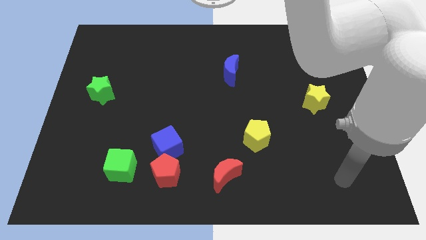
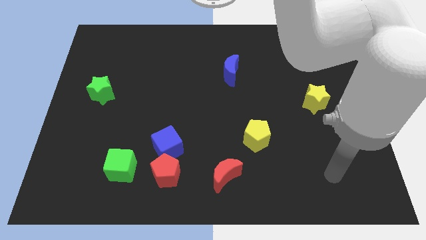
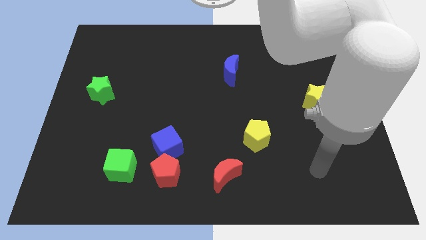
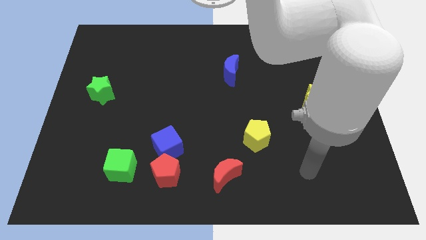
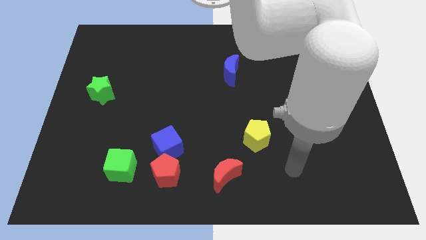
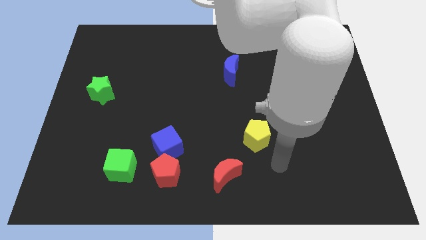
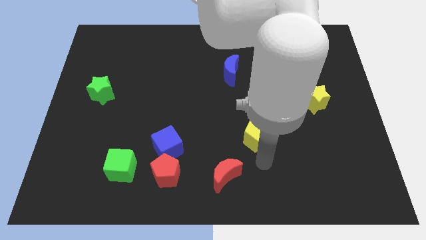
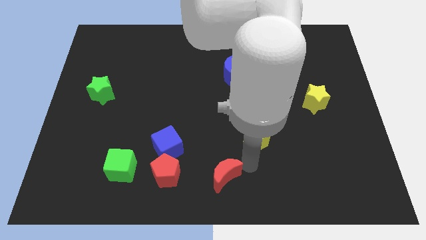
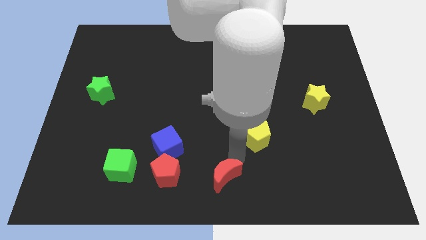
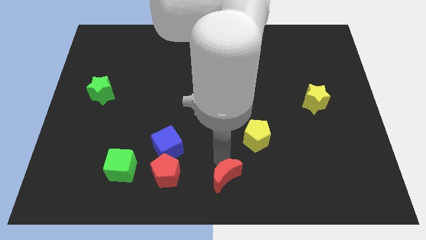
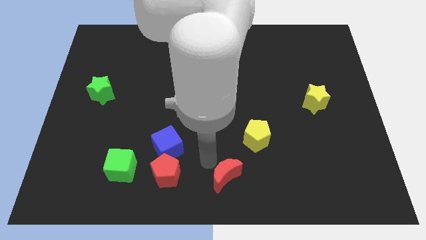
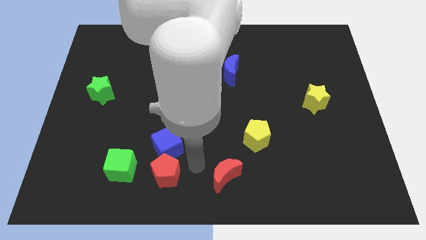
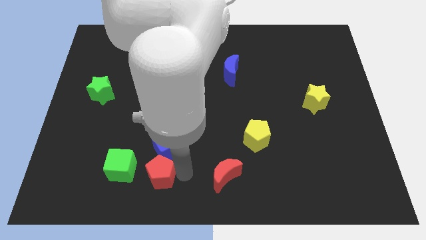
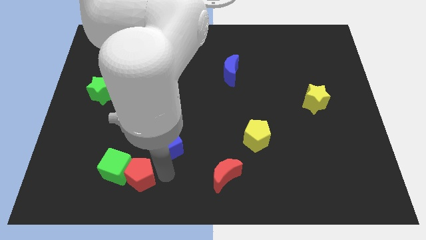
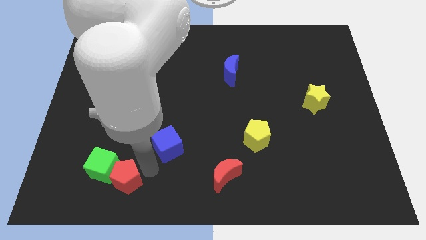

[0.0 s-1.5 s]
pull the blue cube apart from the red pentagon

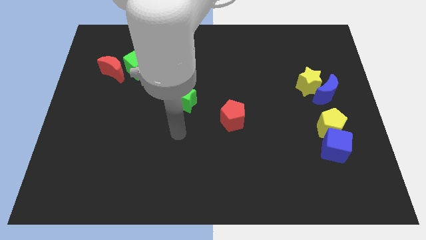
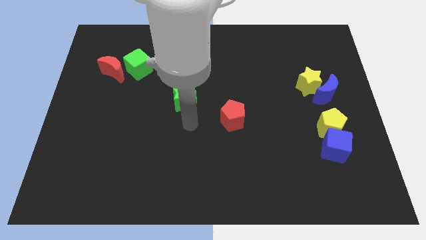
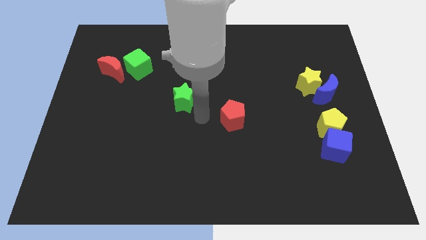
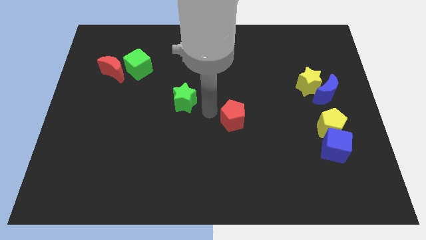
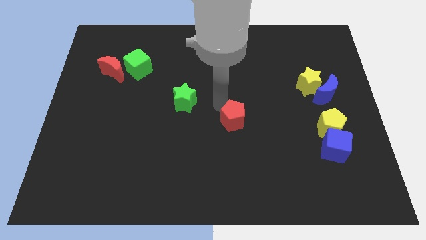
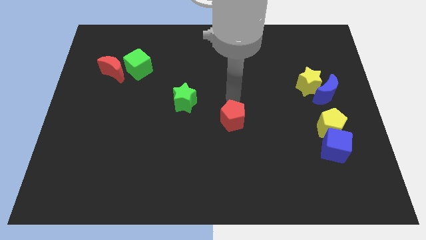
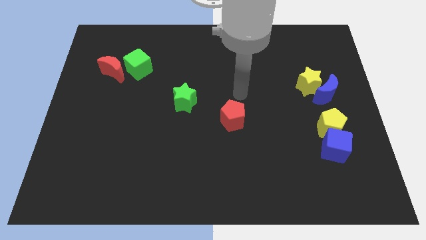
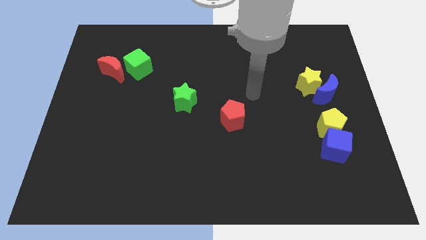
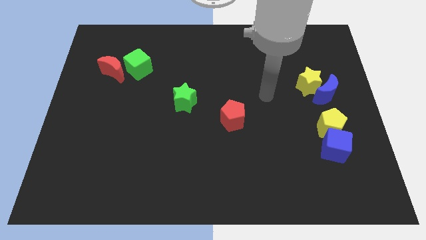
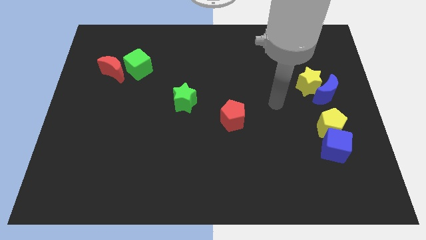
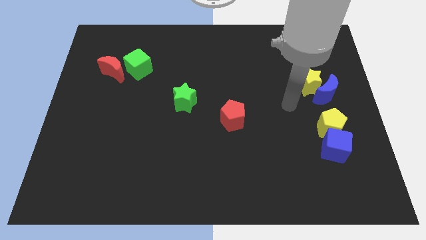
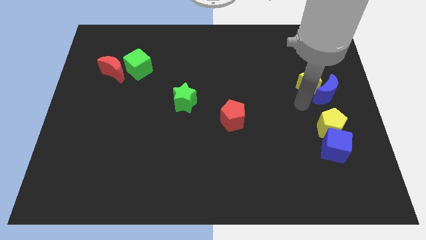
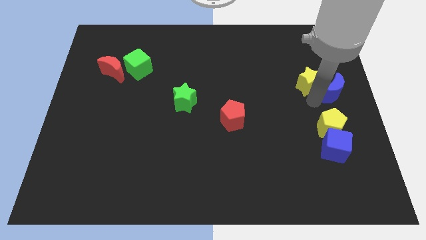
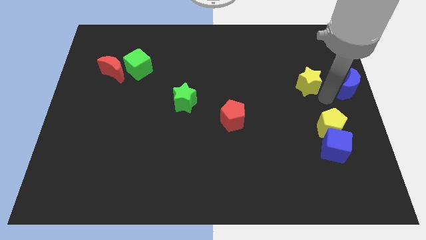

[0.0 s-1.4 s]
pull the yellow star apart from the blue moon

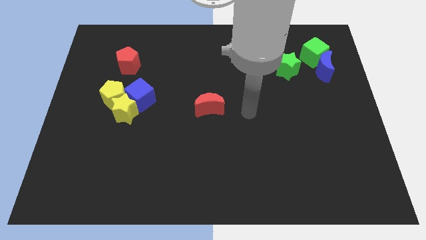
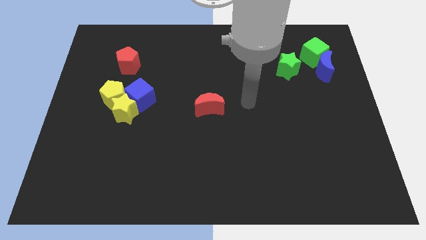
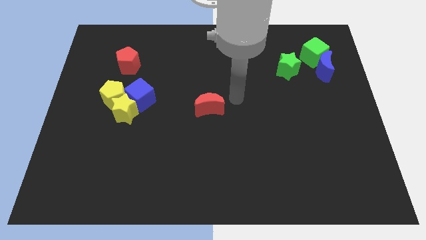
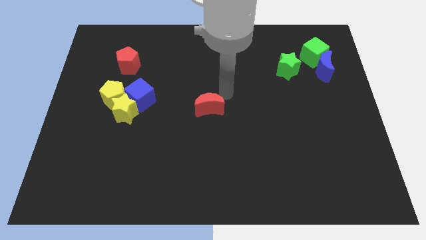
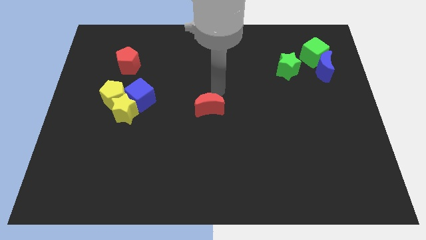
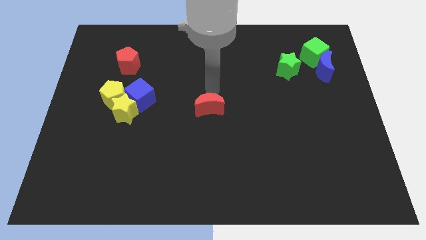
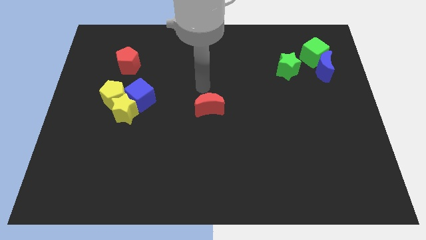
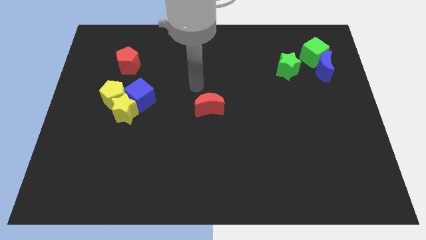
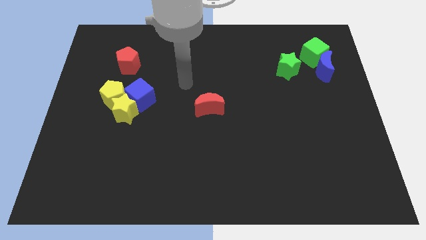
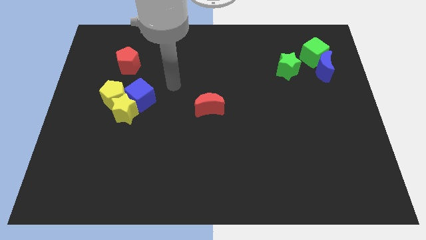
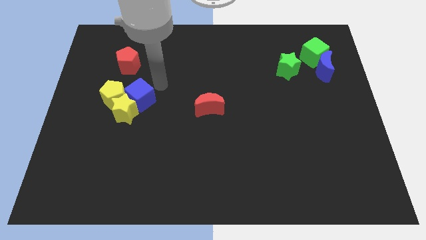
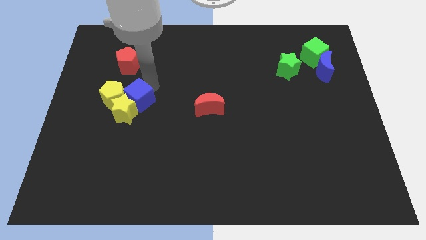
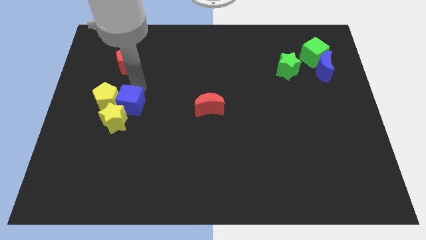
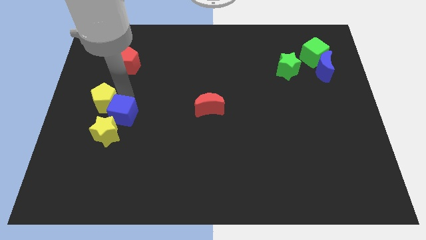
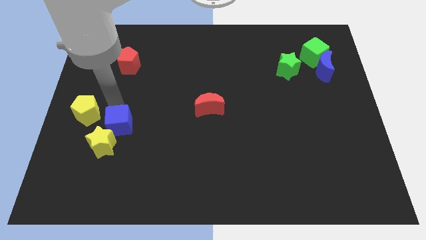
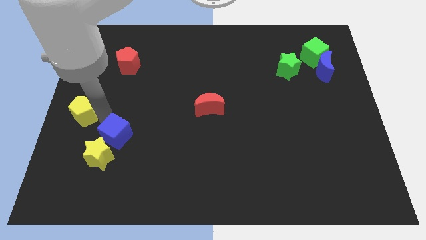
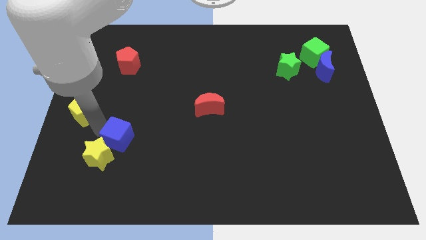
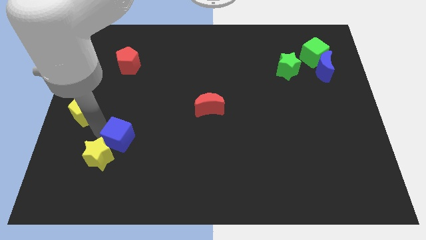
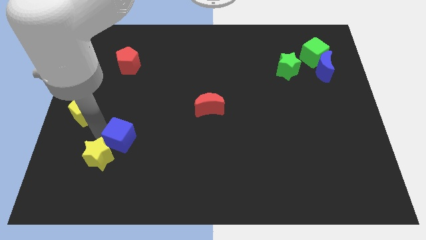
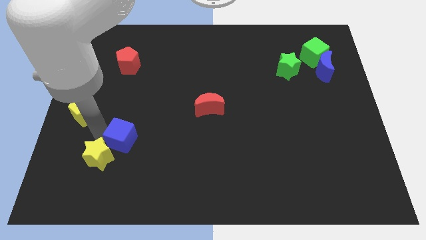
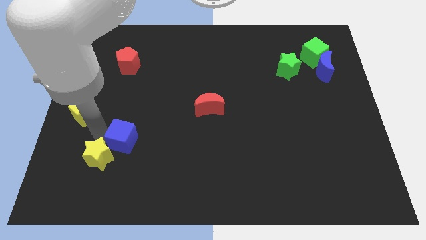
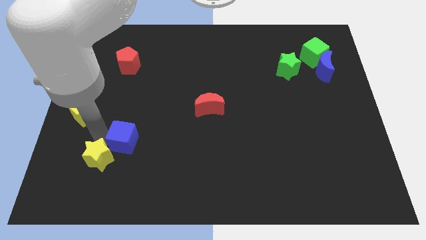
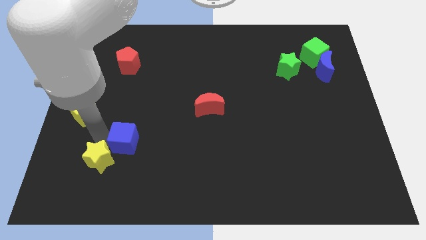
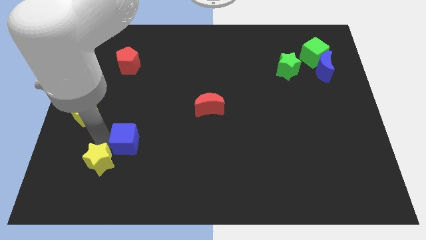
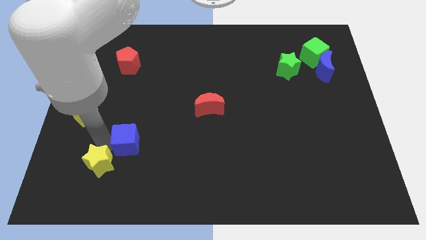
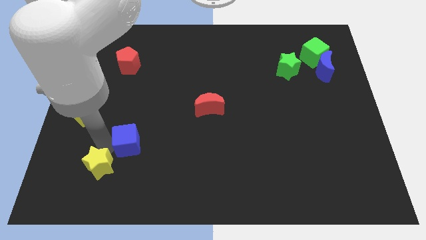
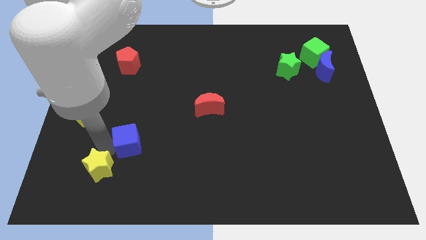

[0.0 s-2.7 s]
move the yellow star away from the yellow pentagon and blue cube

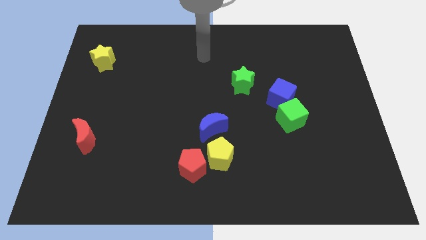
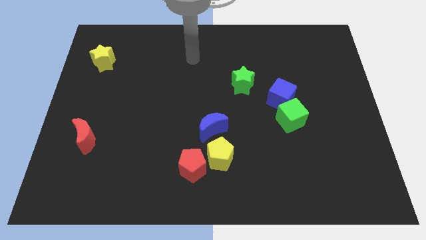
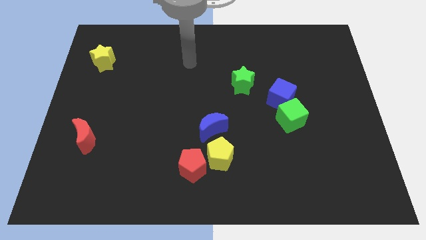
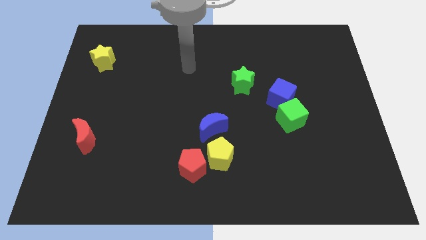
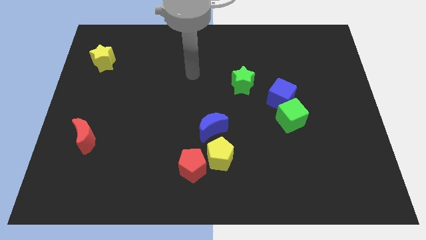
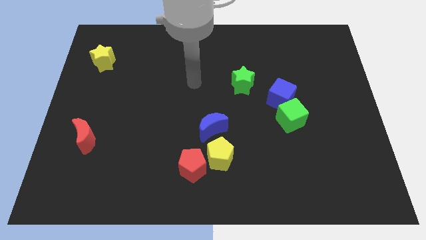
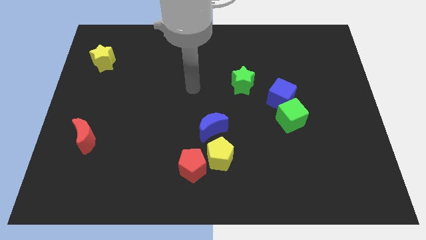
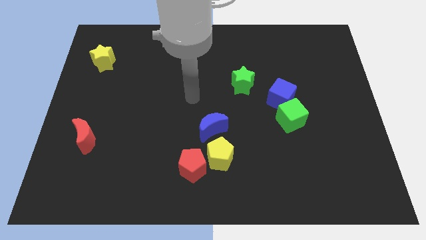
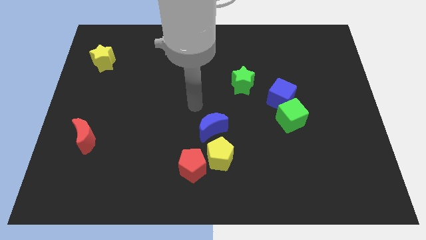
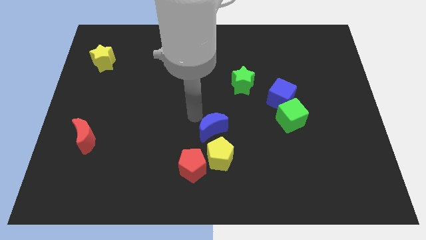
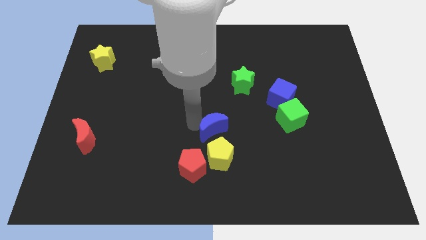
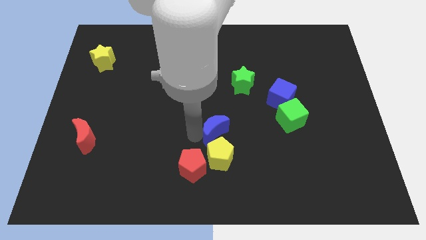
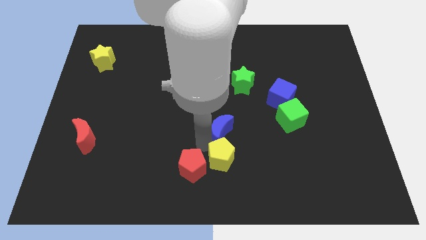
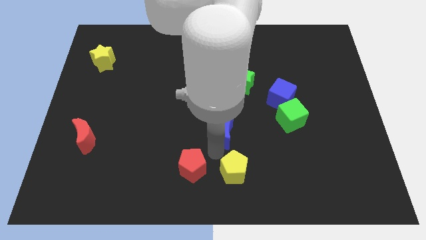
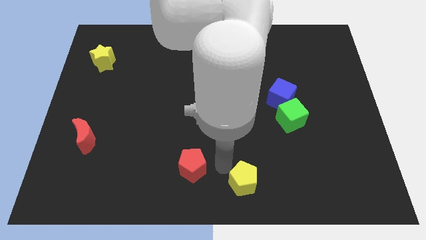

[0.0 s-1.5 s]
separate the red pentagon from the yellow pentagon

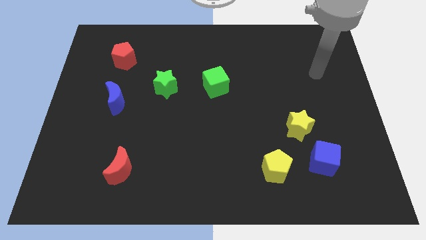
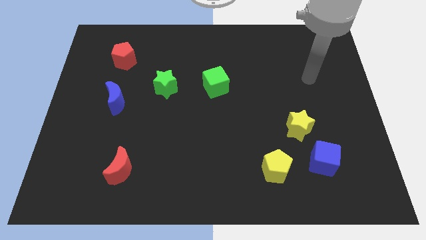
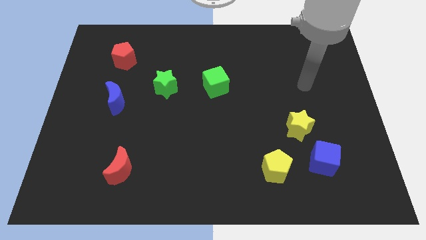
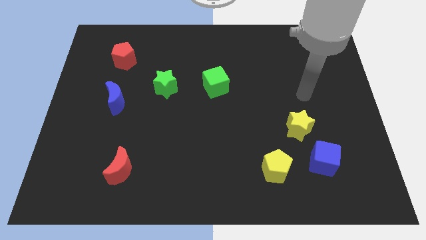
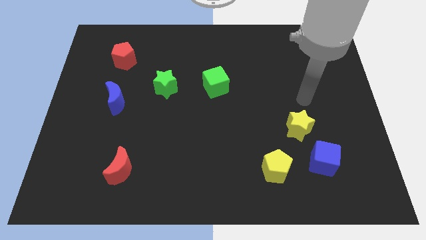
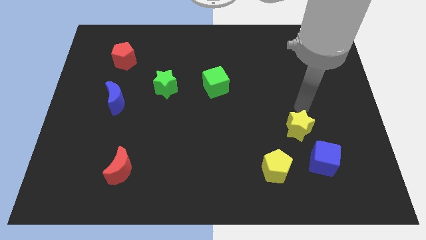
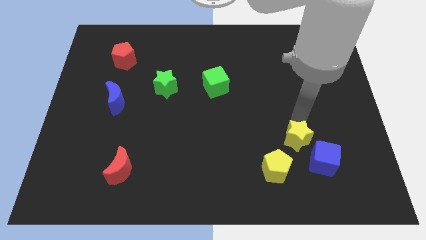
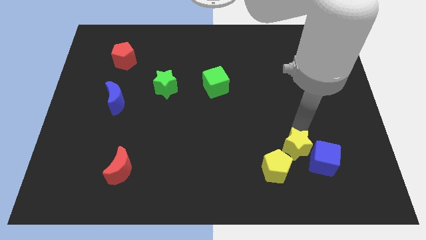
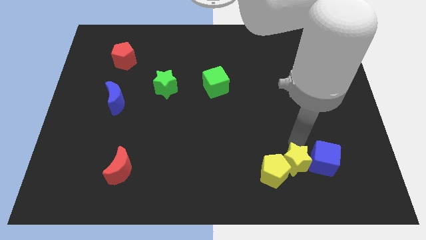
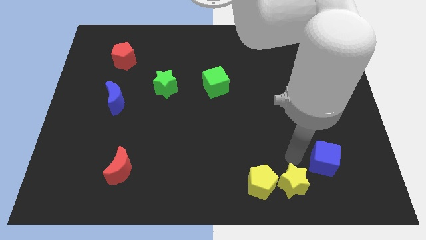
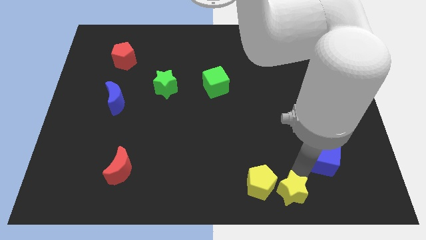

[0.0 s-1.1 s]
pull the blue cube apart from the yellow star

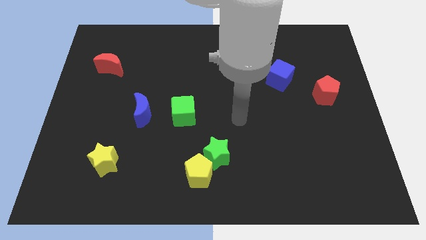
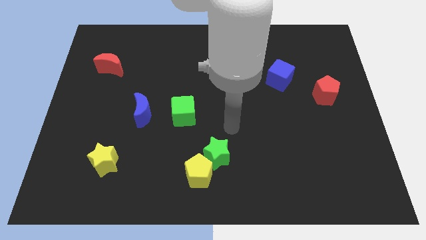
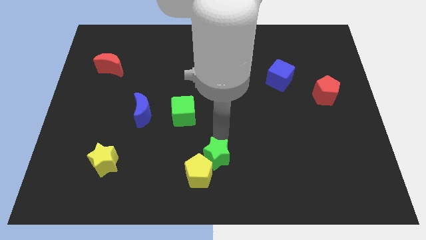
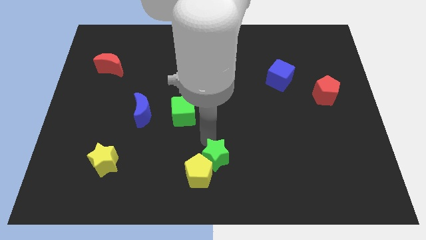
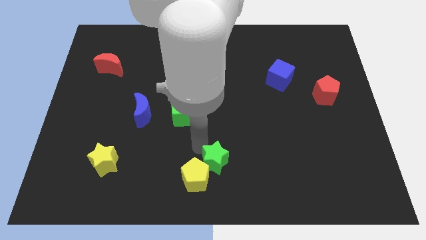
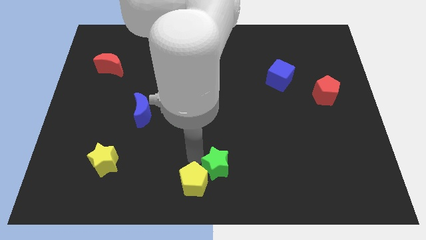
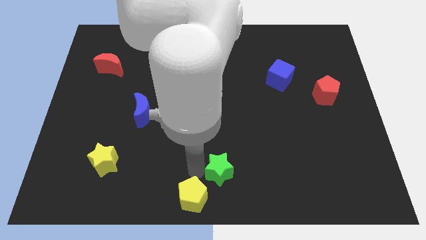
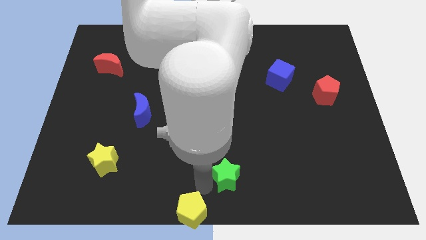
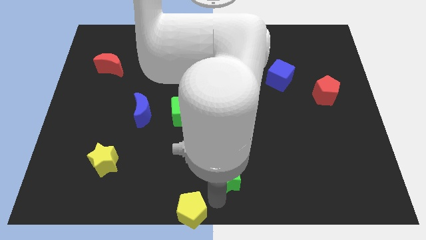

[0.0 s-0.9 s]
move the green star away from the yellow pentagon
